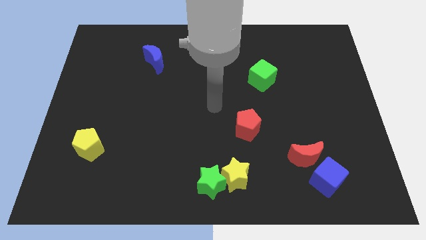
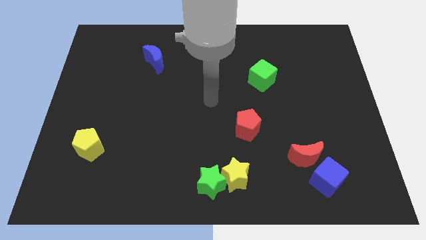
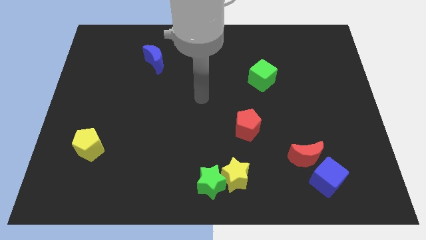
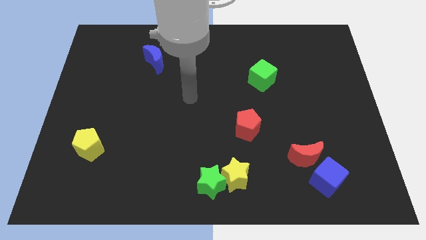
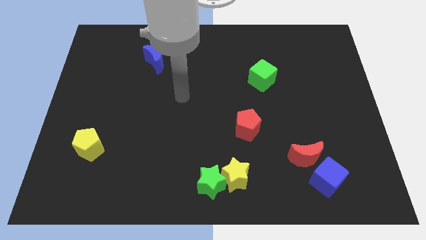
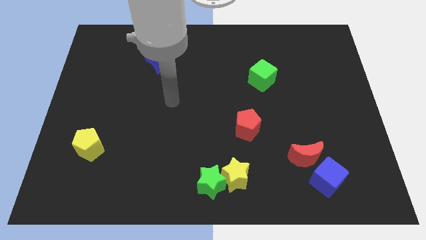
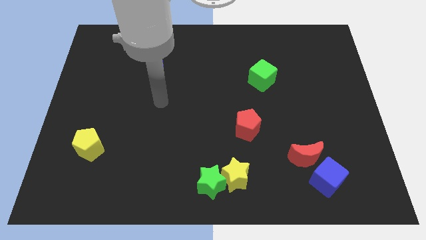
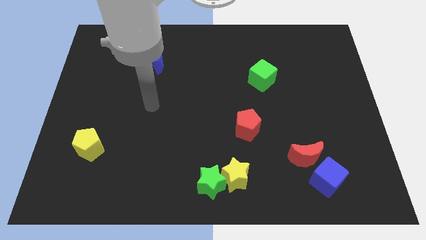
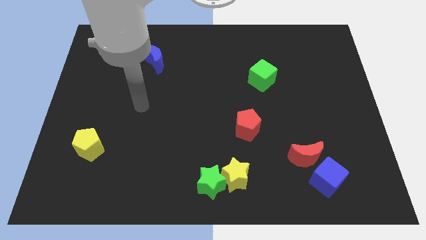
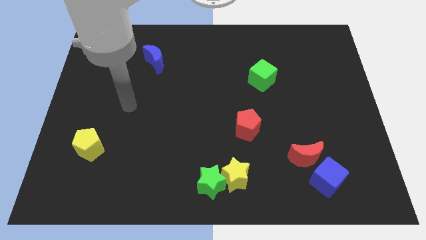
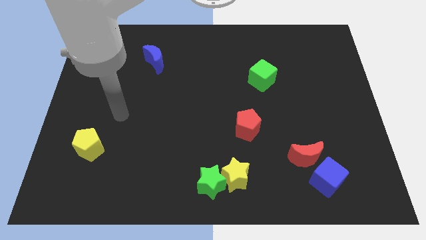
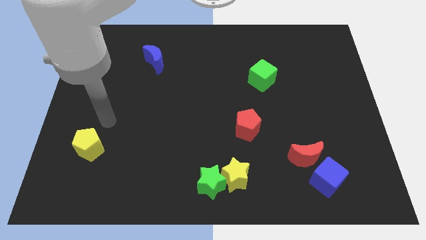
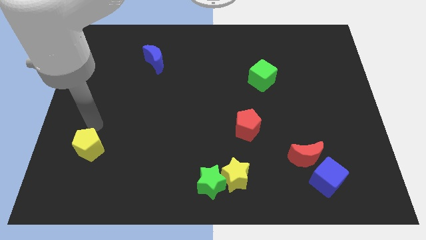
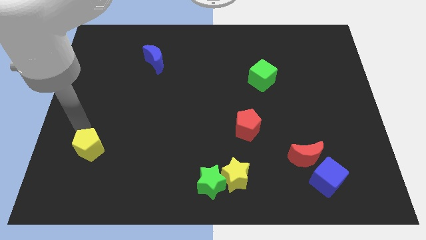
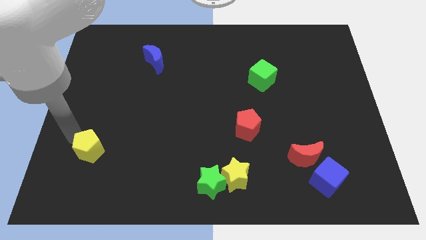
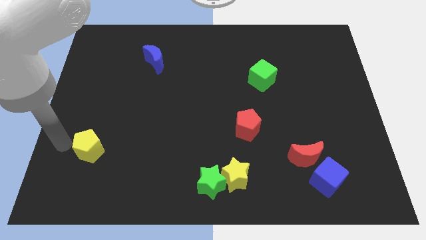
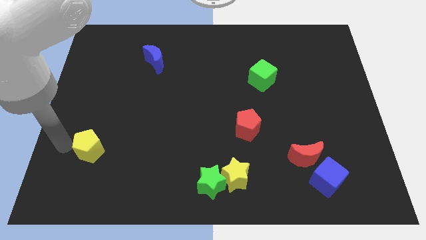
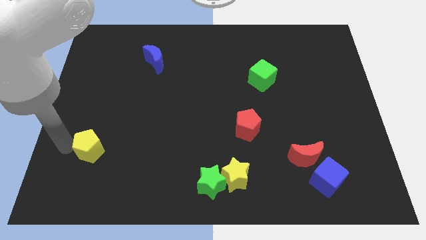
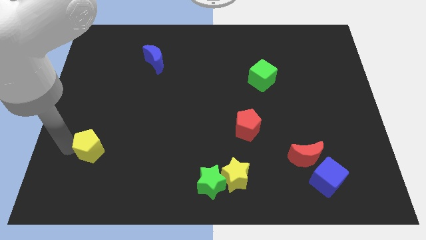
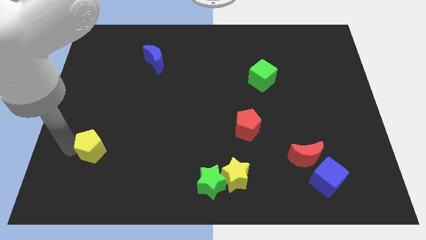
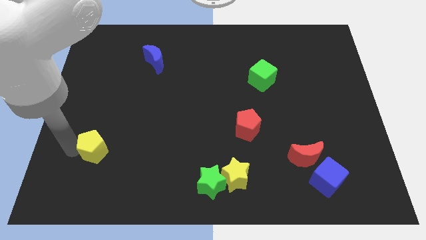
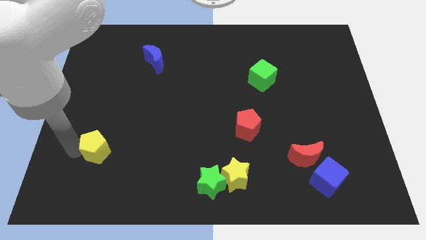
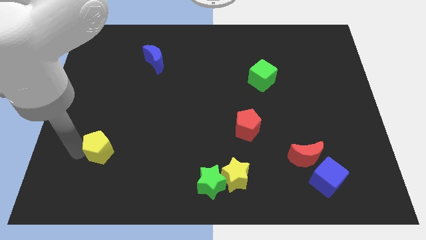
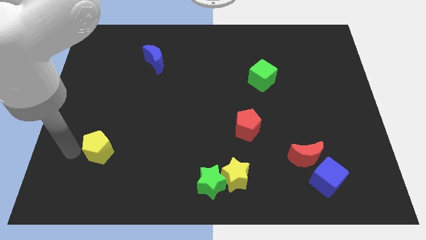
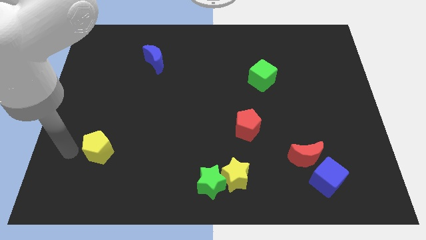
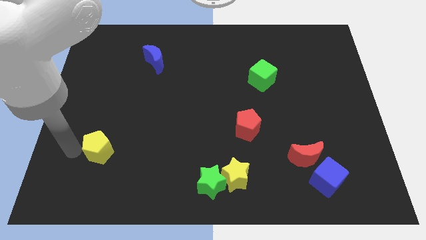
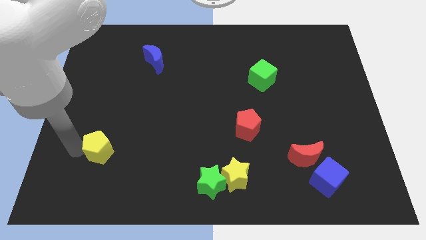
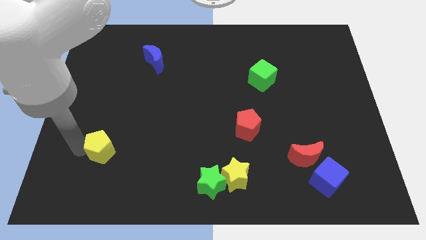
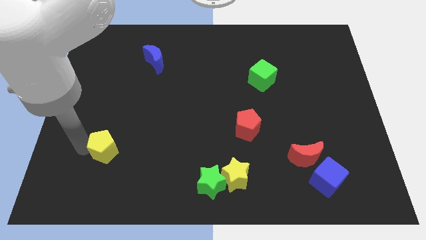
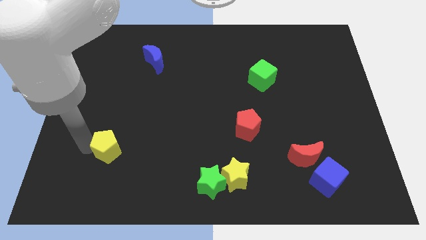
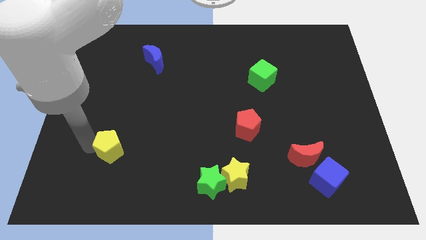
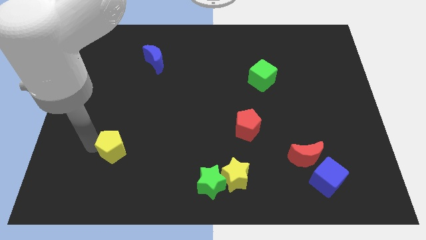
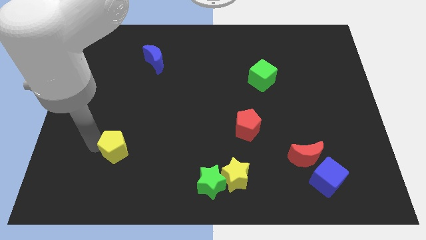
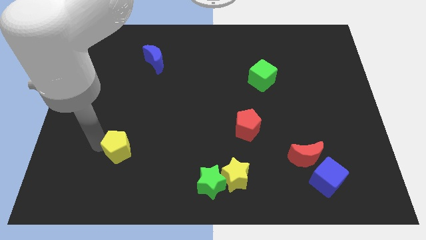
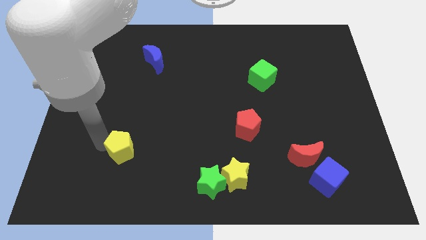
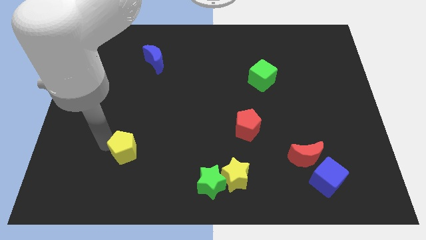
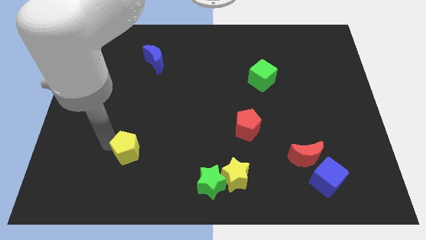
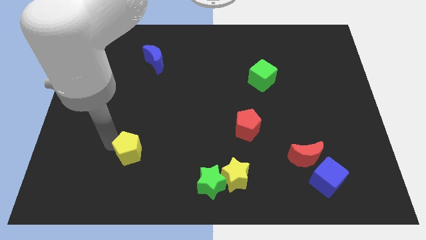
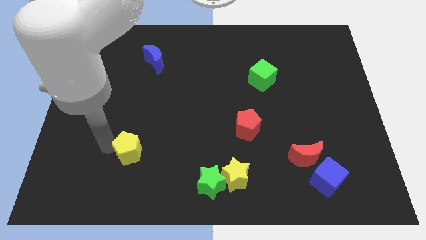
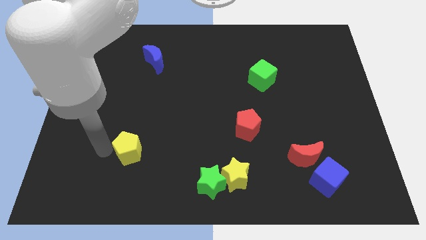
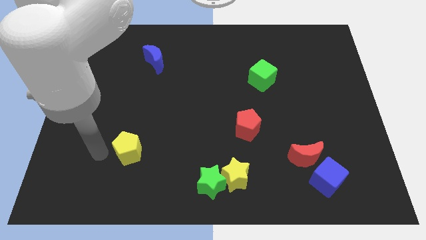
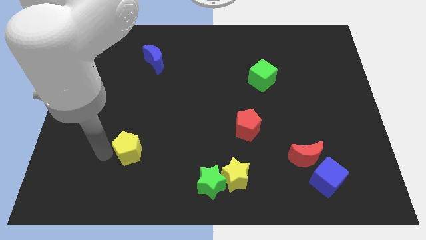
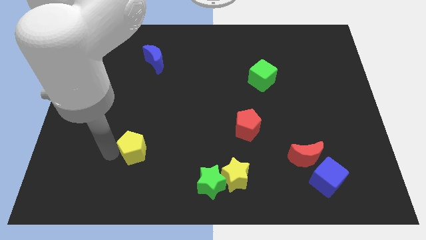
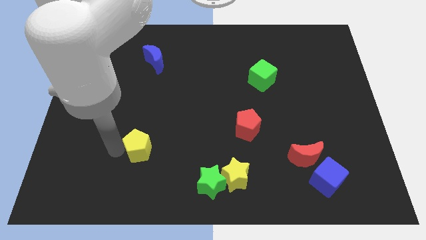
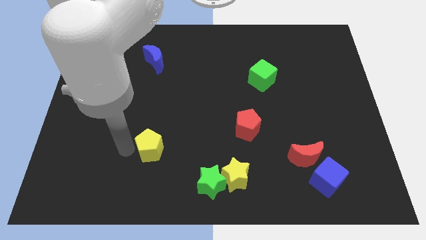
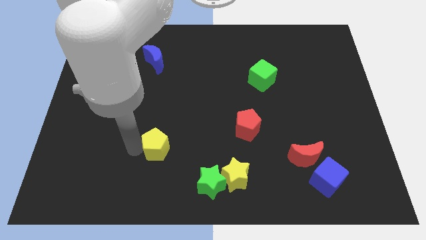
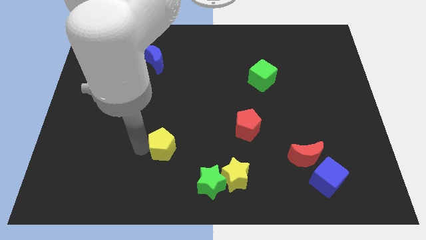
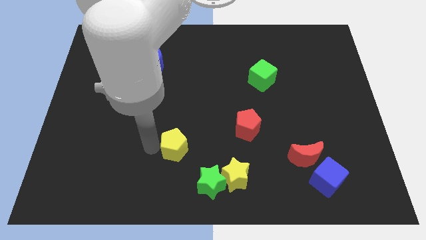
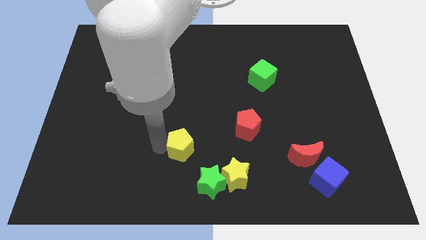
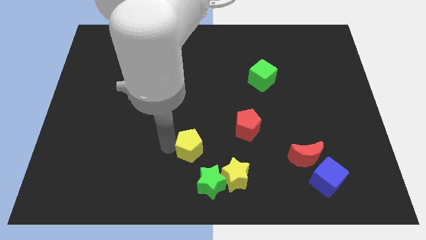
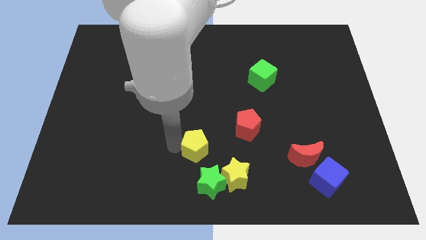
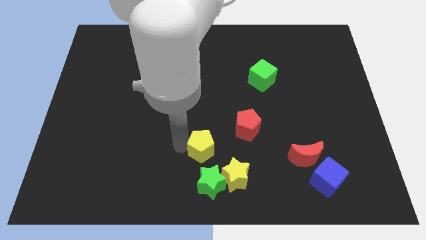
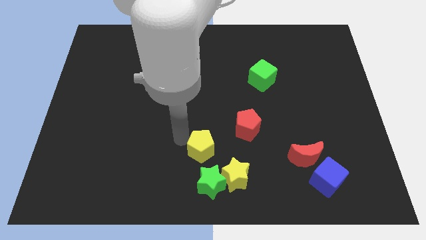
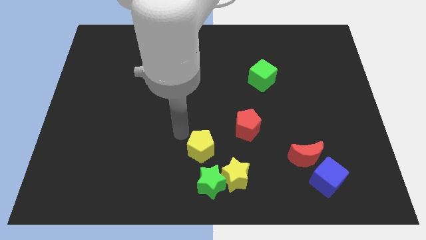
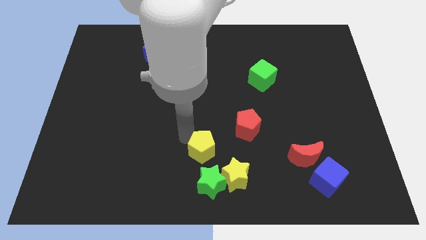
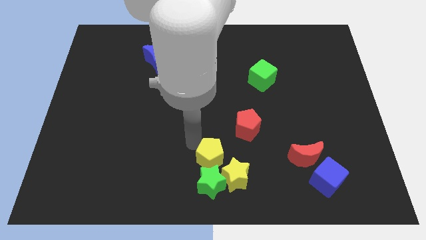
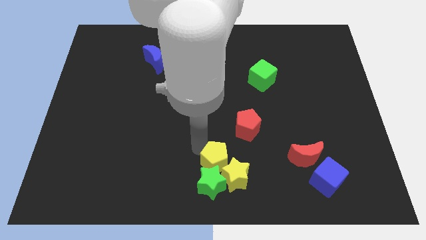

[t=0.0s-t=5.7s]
move the yellow pentagon next to the yellow star

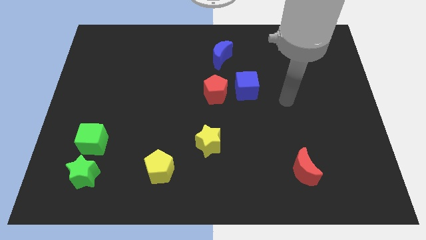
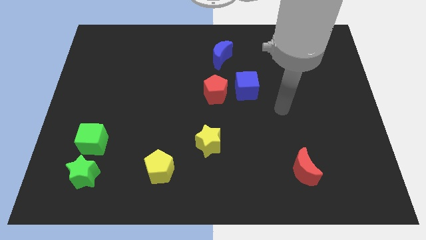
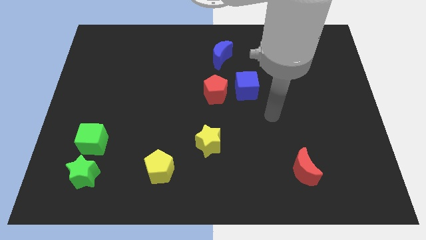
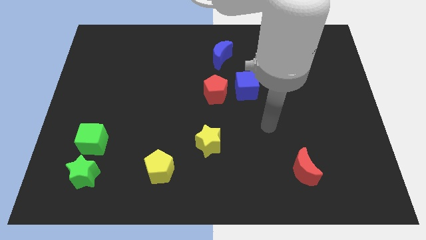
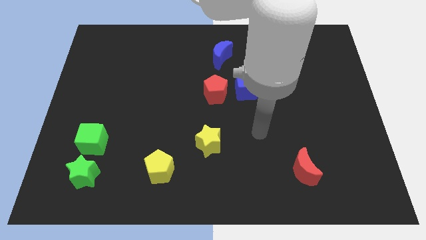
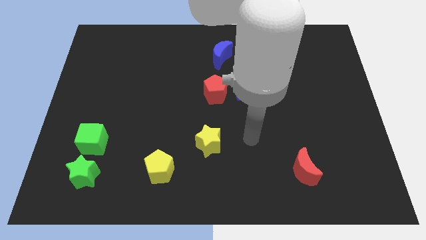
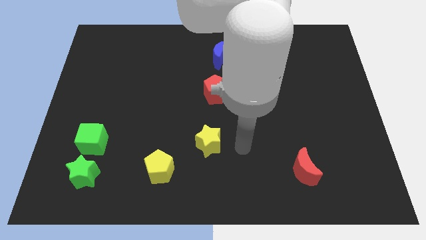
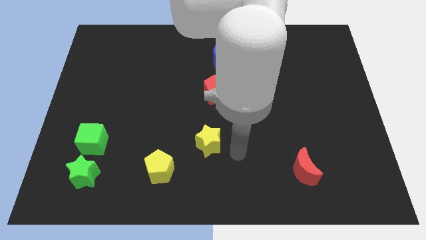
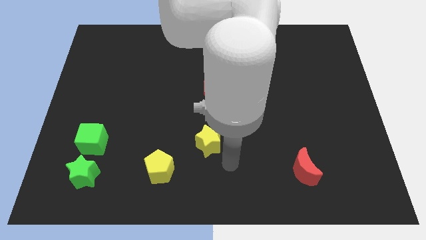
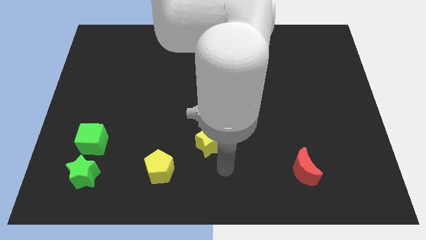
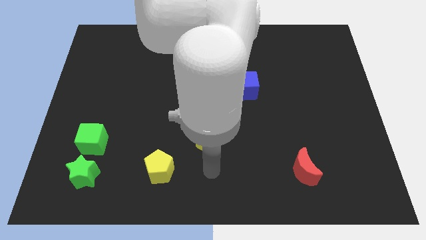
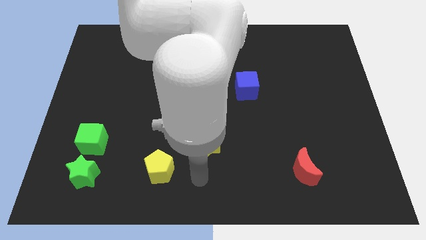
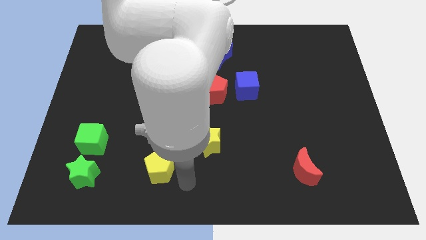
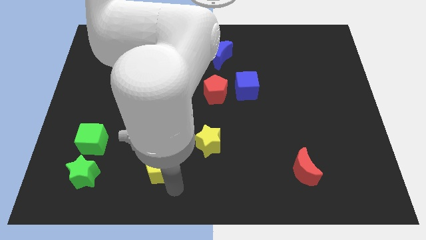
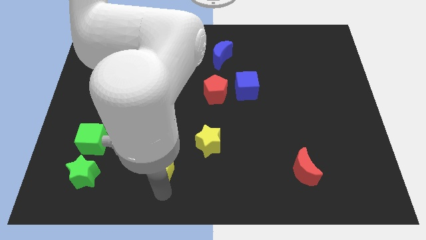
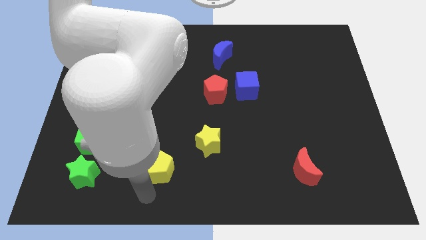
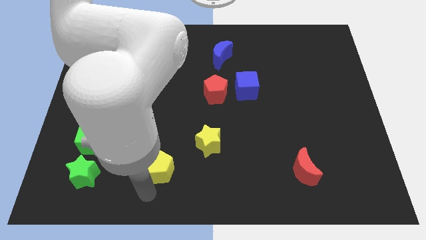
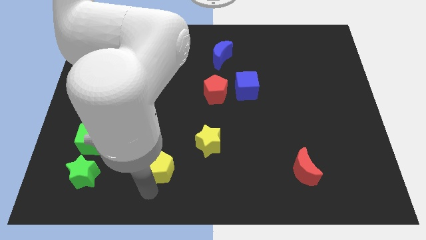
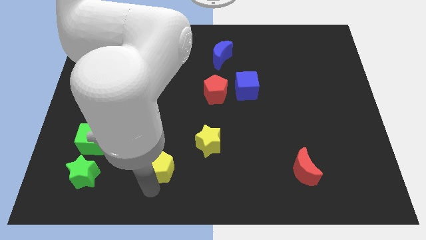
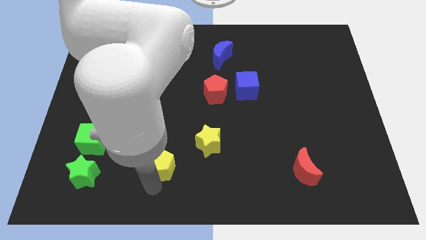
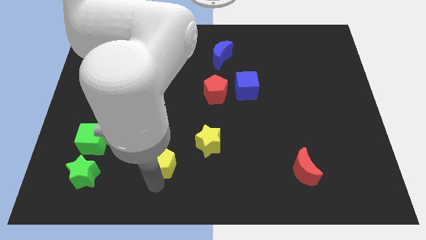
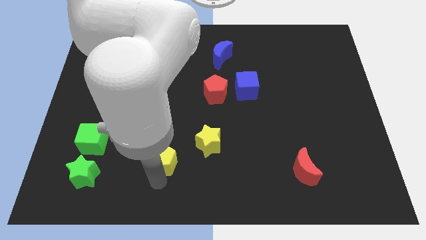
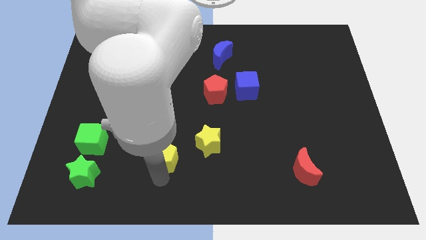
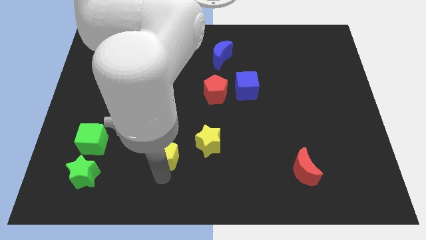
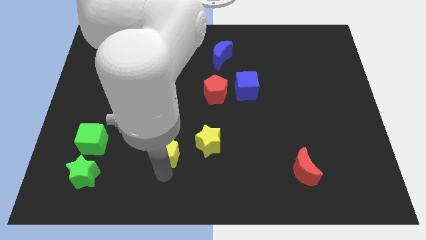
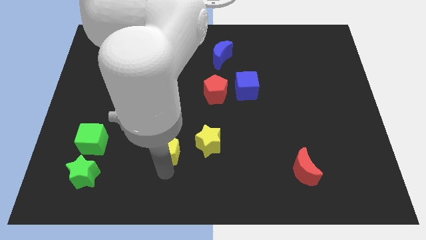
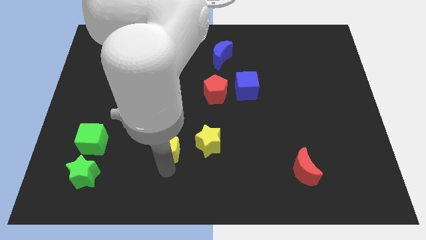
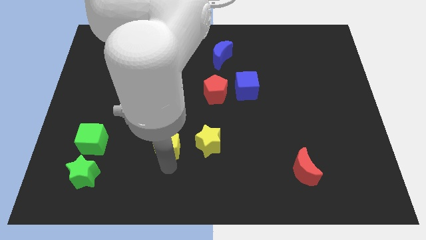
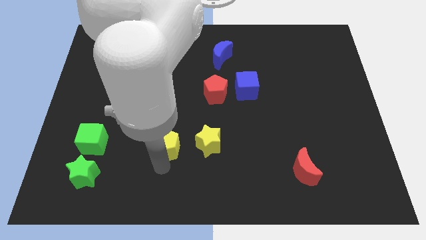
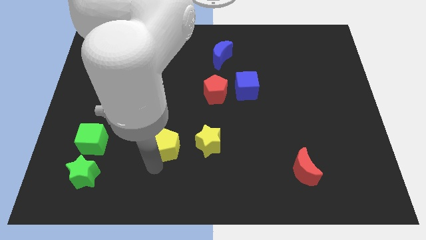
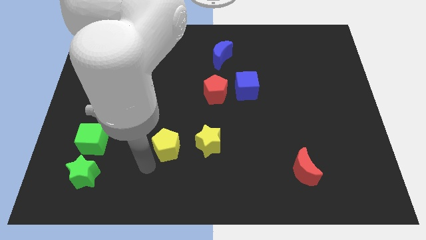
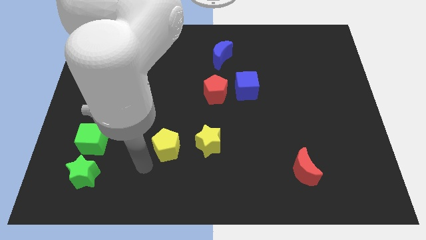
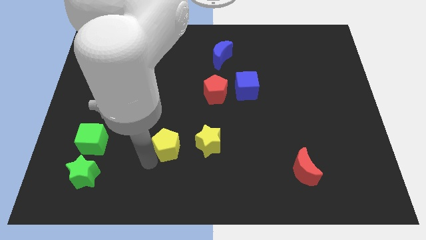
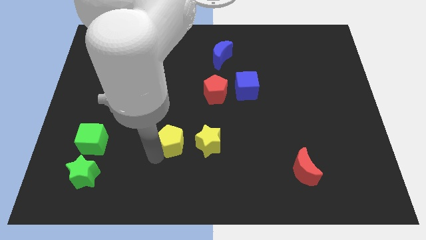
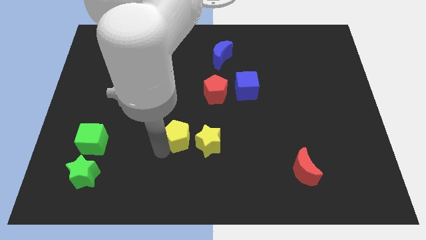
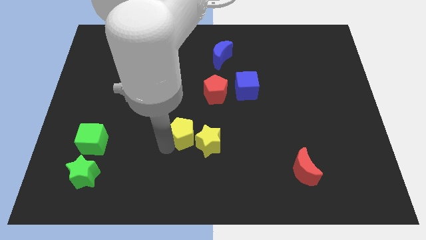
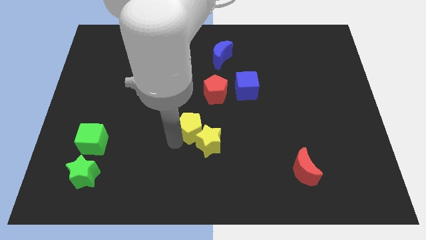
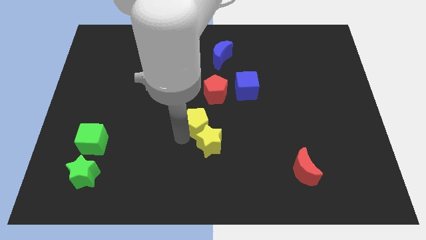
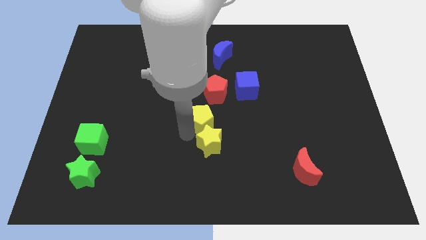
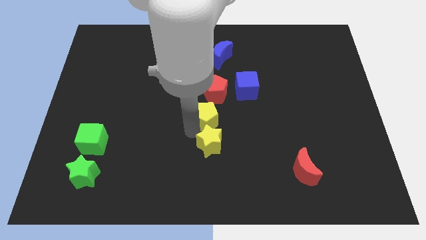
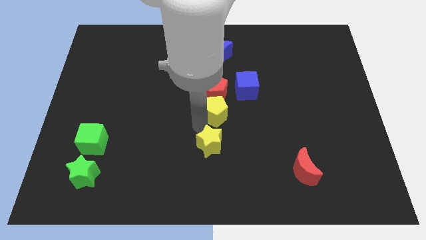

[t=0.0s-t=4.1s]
move the yellow pentagon to the red pentagon
